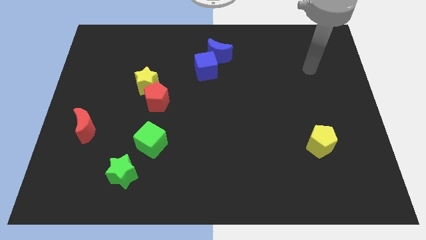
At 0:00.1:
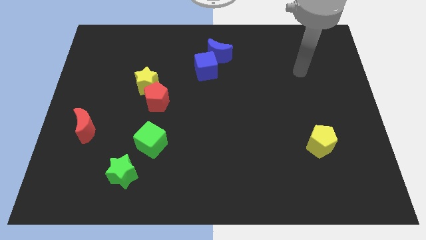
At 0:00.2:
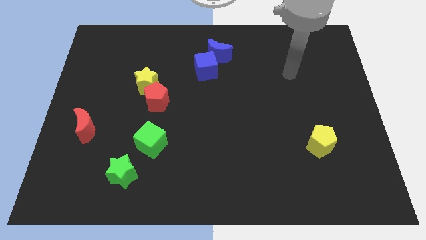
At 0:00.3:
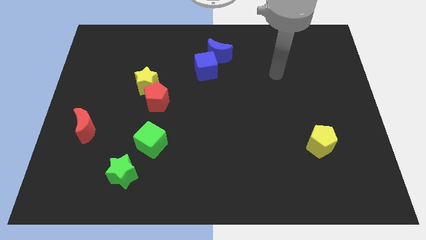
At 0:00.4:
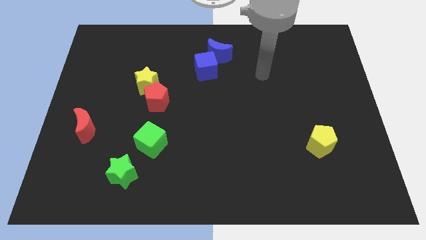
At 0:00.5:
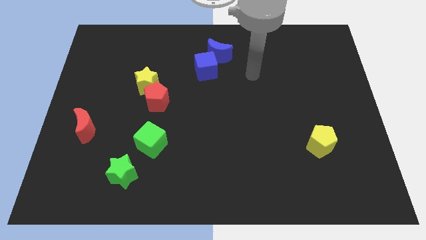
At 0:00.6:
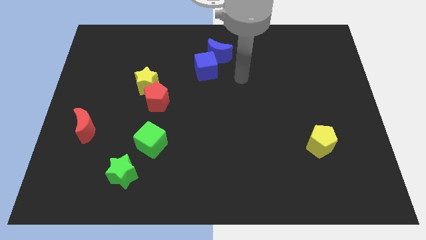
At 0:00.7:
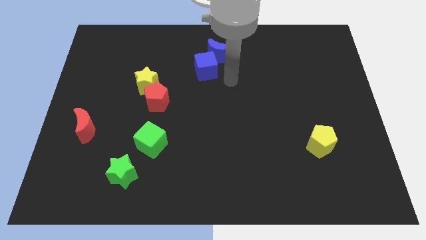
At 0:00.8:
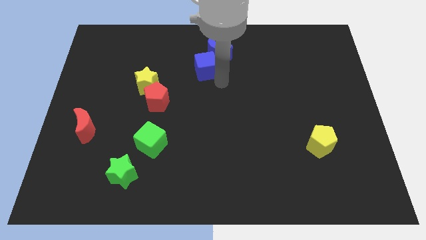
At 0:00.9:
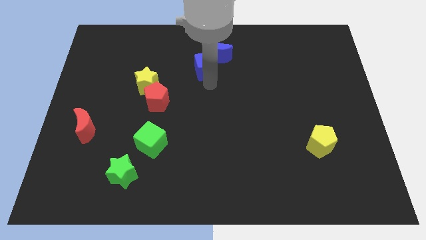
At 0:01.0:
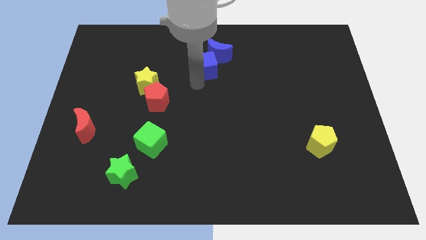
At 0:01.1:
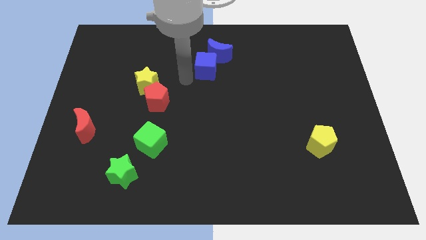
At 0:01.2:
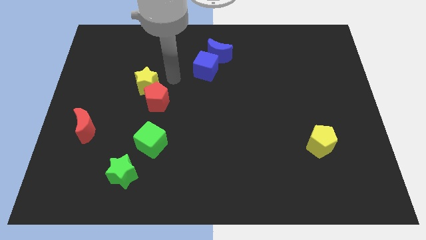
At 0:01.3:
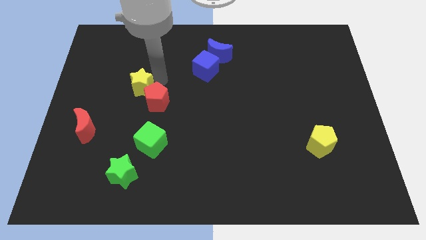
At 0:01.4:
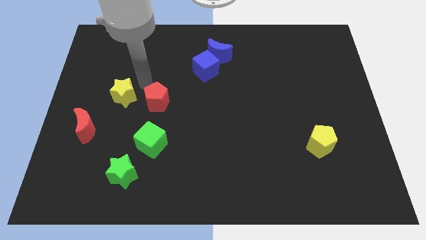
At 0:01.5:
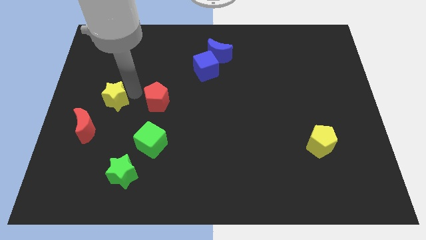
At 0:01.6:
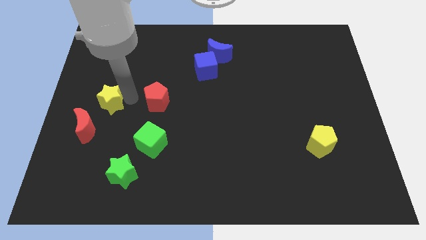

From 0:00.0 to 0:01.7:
separate the red pentagon from the yellow star

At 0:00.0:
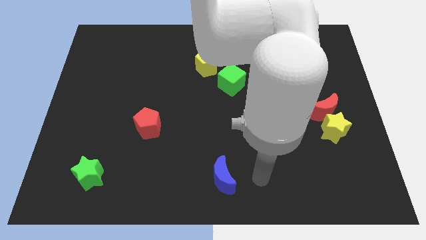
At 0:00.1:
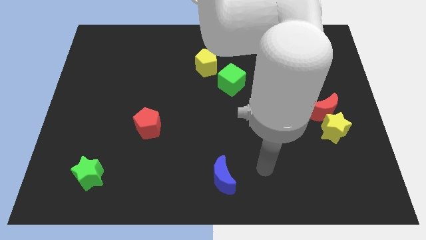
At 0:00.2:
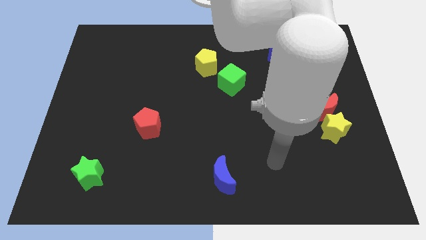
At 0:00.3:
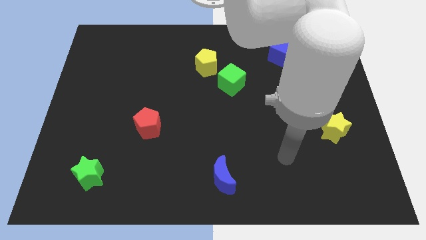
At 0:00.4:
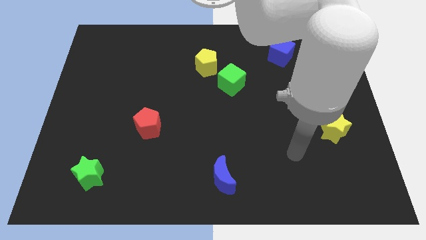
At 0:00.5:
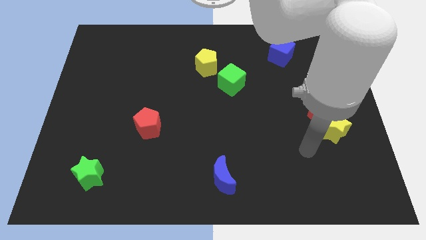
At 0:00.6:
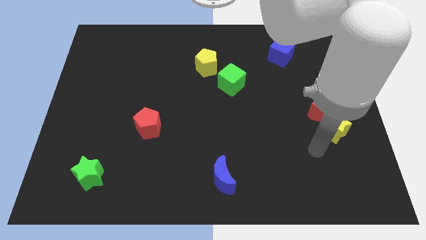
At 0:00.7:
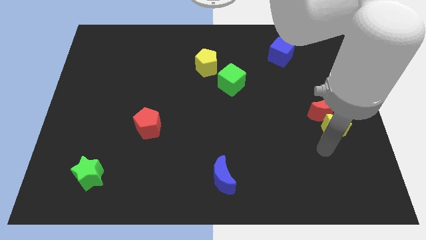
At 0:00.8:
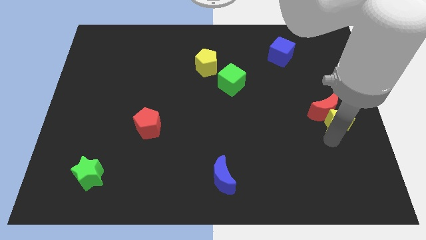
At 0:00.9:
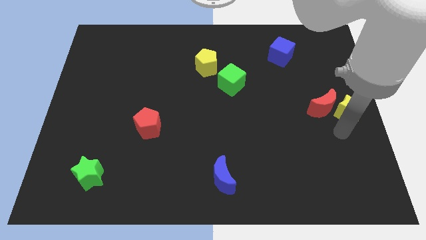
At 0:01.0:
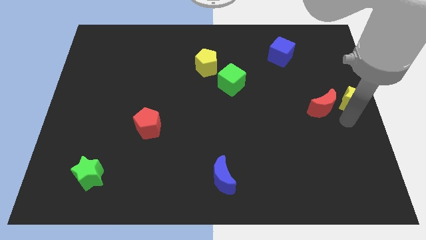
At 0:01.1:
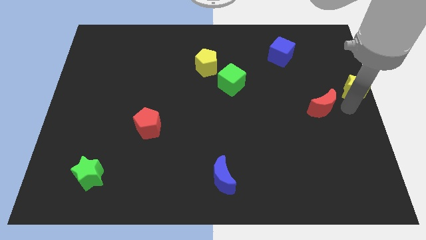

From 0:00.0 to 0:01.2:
separate the red moon from the yellow star

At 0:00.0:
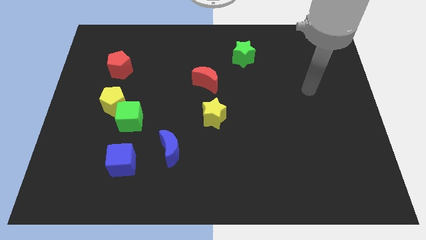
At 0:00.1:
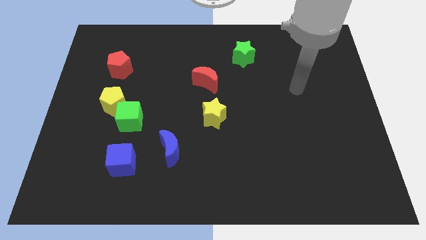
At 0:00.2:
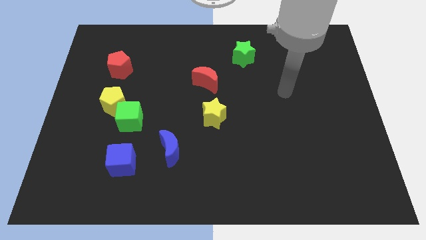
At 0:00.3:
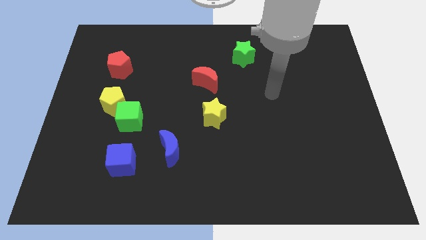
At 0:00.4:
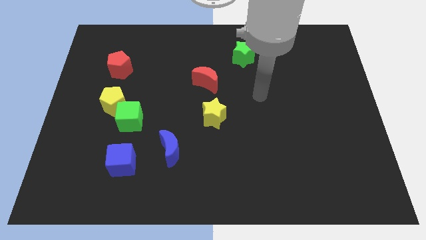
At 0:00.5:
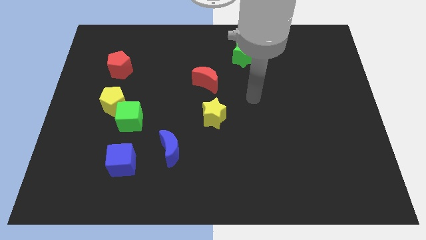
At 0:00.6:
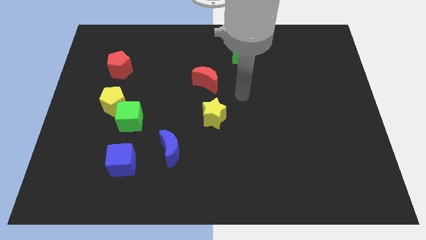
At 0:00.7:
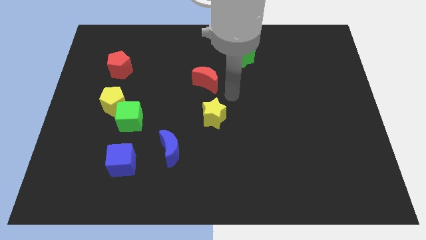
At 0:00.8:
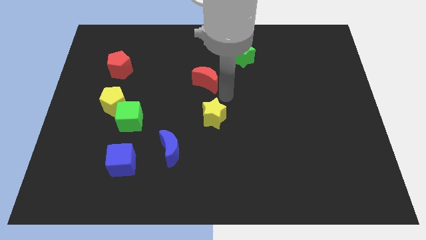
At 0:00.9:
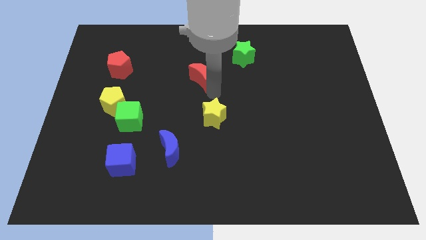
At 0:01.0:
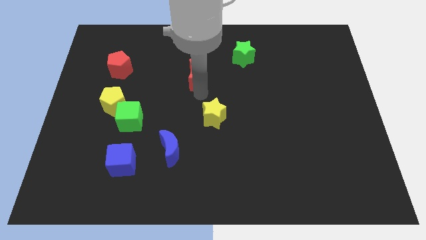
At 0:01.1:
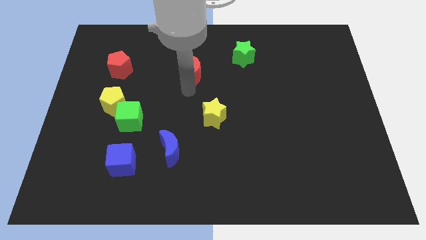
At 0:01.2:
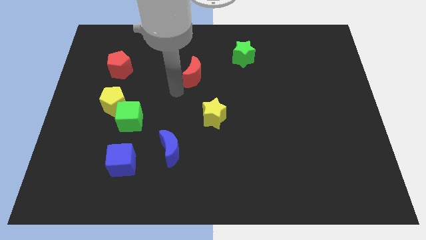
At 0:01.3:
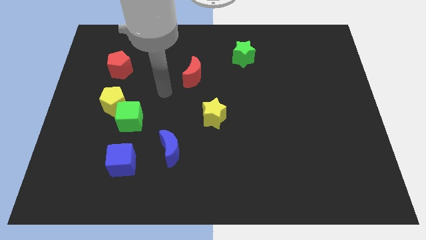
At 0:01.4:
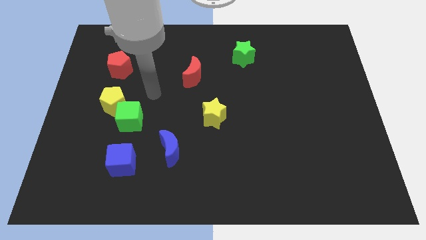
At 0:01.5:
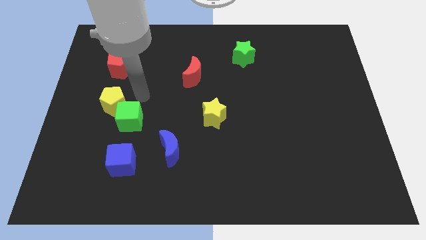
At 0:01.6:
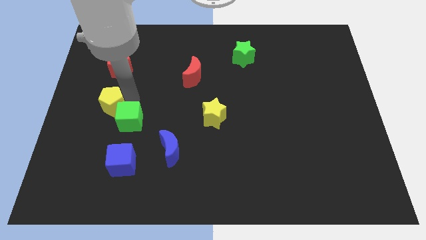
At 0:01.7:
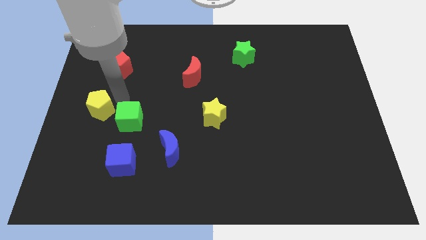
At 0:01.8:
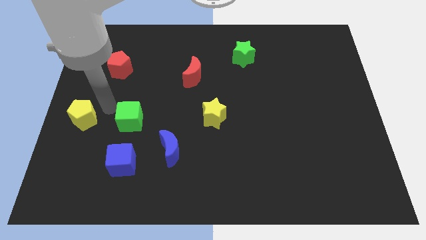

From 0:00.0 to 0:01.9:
move the green cube away from the yellow pentagon

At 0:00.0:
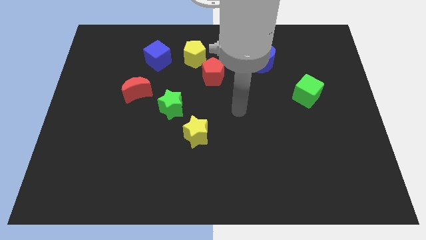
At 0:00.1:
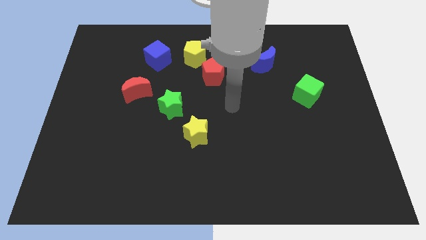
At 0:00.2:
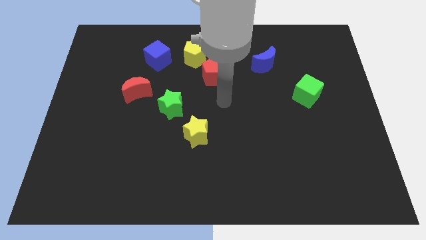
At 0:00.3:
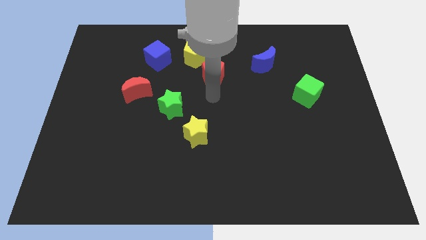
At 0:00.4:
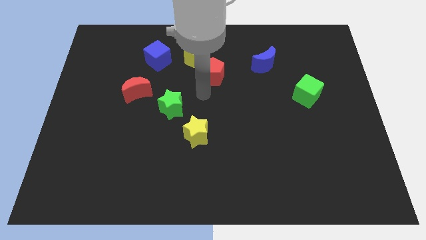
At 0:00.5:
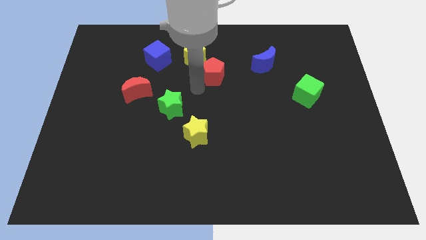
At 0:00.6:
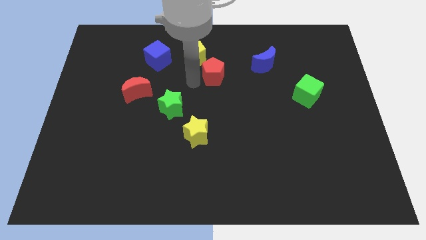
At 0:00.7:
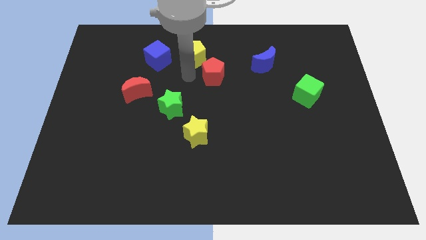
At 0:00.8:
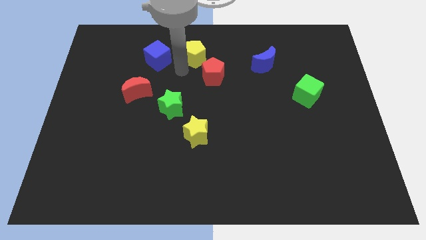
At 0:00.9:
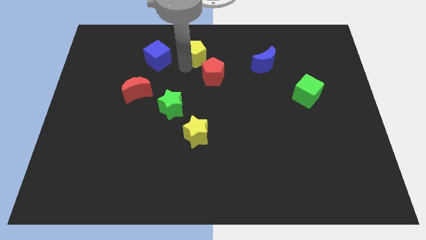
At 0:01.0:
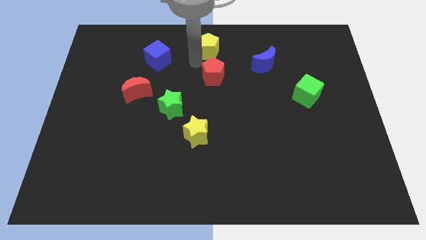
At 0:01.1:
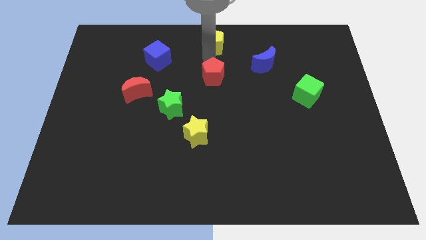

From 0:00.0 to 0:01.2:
separate the red pentagon from the yellow pentagon

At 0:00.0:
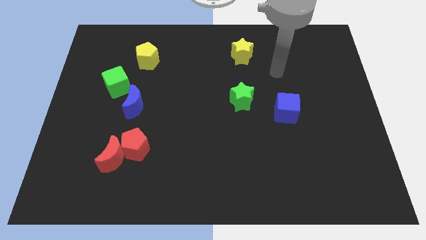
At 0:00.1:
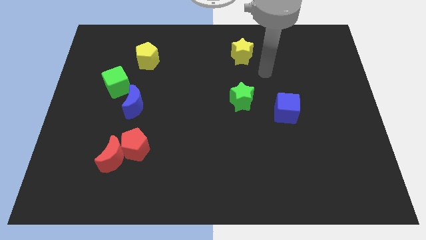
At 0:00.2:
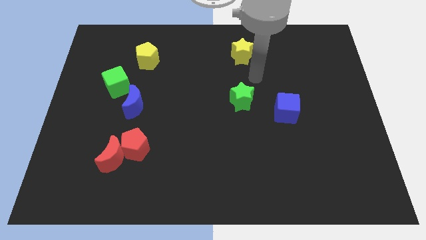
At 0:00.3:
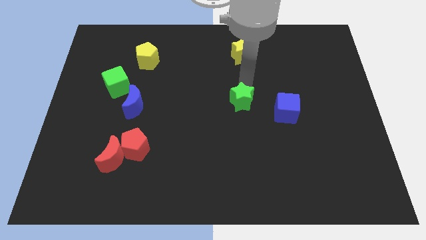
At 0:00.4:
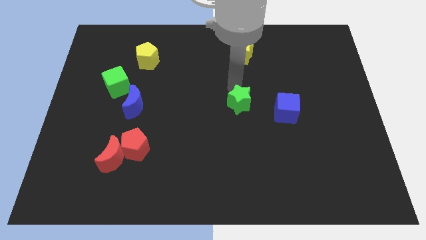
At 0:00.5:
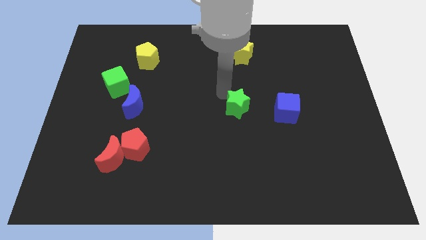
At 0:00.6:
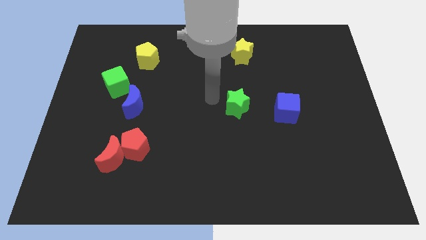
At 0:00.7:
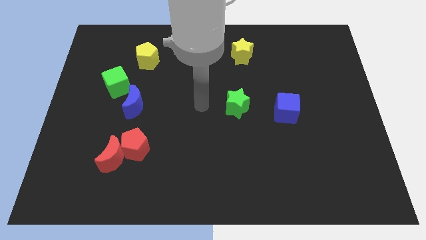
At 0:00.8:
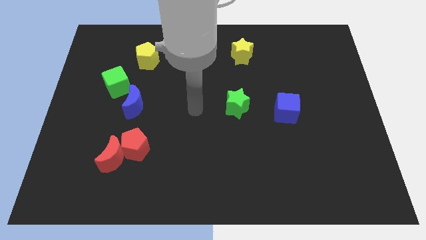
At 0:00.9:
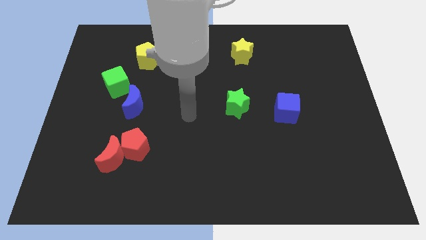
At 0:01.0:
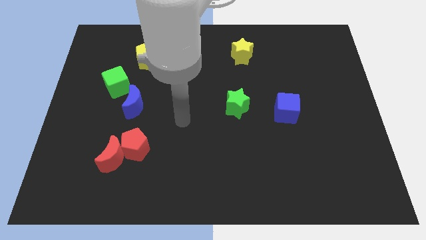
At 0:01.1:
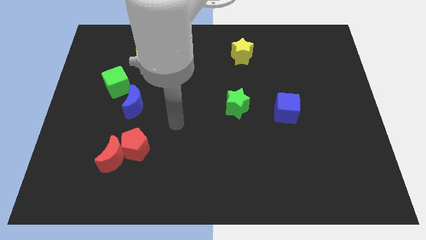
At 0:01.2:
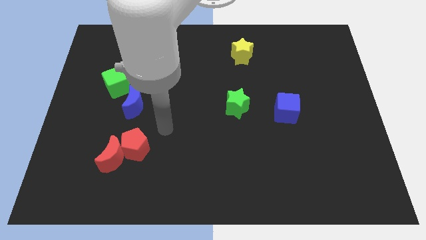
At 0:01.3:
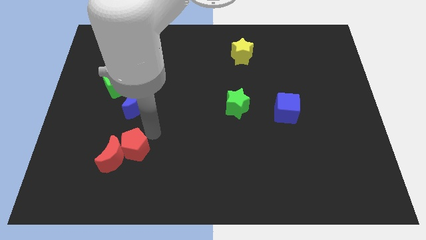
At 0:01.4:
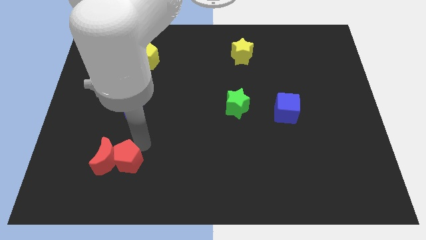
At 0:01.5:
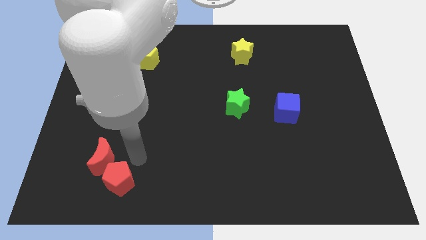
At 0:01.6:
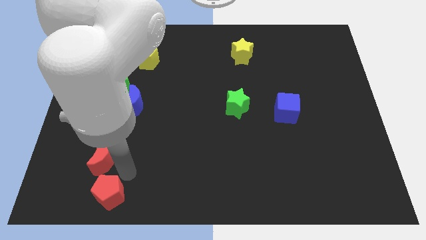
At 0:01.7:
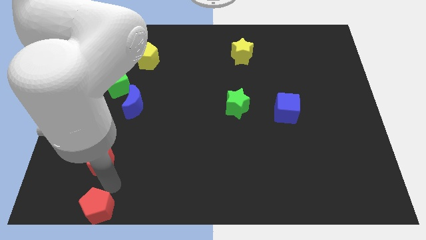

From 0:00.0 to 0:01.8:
separate the red moon from the red pentagon

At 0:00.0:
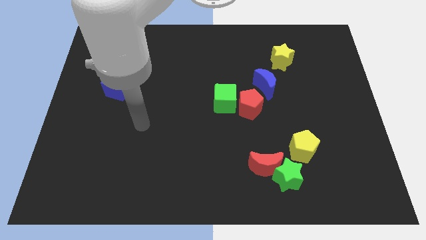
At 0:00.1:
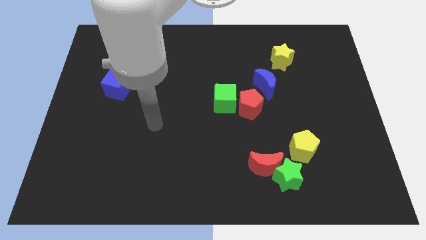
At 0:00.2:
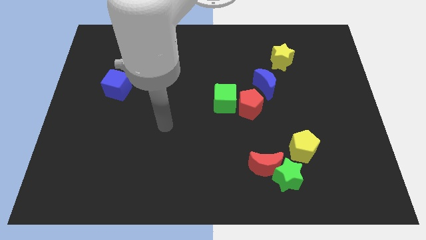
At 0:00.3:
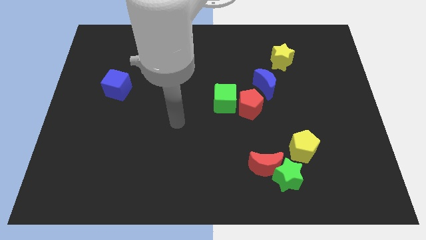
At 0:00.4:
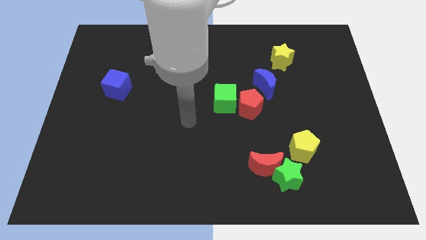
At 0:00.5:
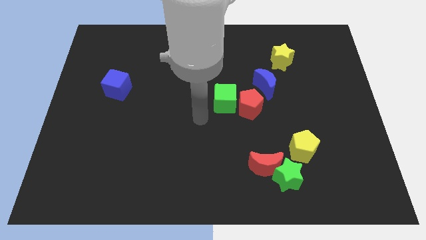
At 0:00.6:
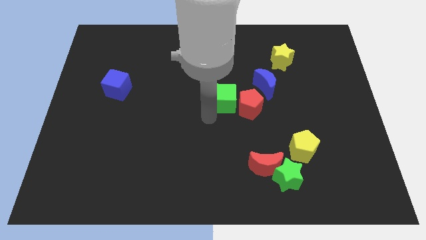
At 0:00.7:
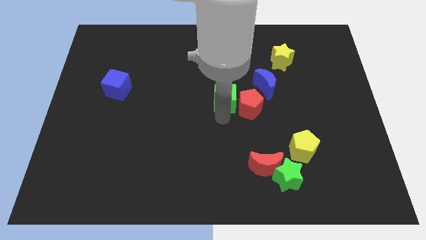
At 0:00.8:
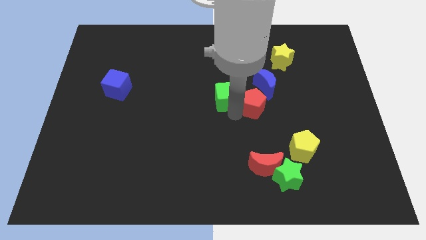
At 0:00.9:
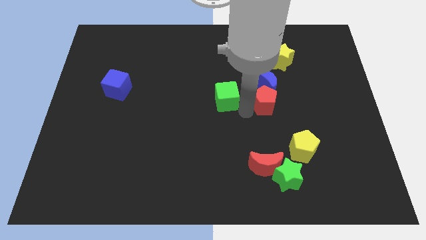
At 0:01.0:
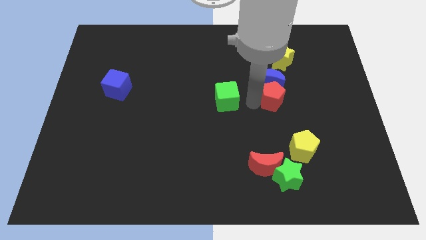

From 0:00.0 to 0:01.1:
separate the green cube from the red pentagon

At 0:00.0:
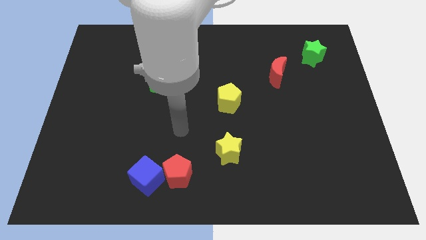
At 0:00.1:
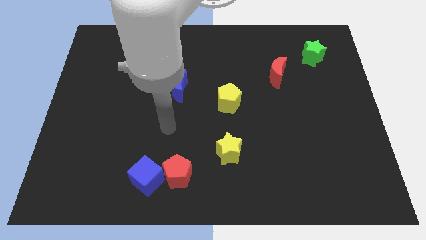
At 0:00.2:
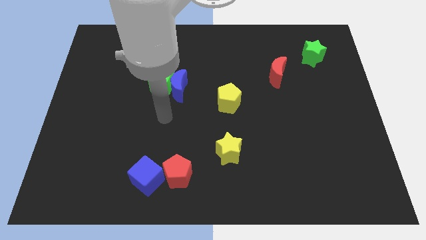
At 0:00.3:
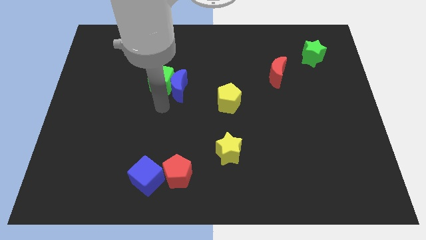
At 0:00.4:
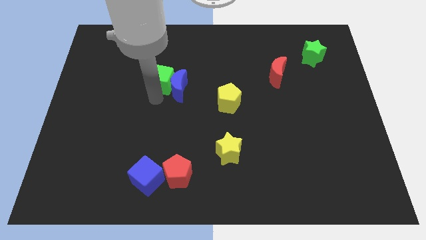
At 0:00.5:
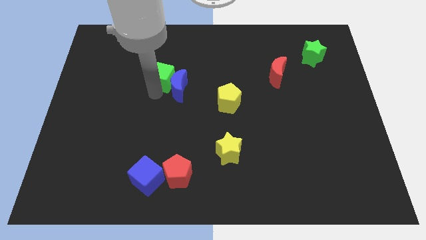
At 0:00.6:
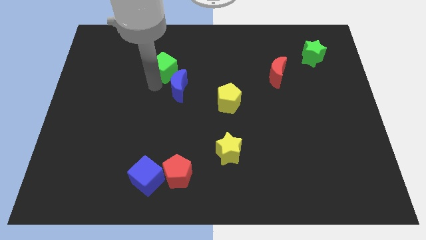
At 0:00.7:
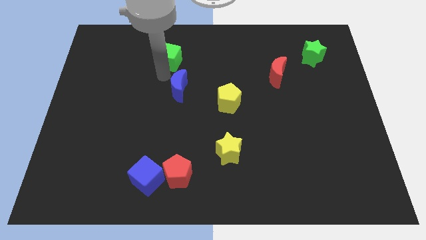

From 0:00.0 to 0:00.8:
separate the blue moon from the green cube
